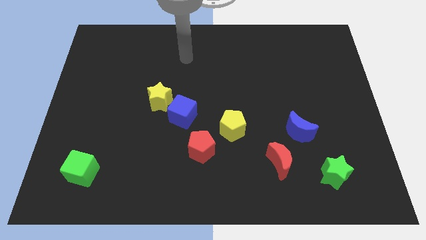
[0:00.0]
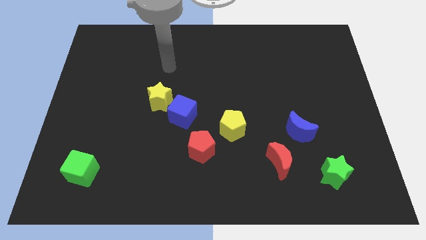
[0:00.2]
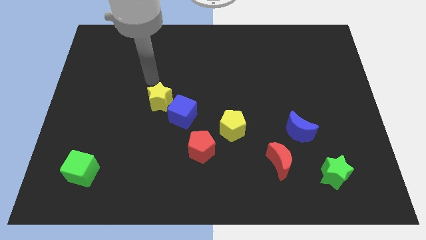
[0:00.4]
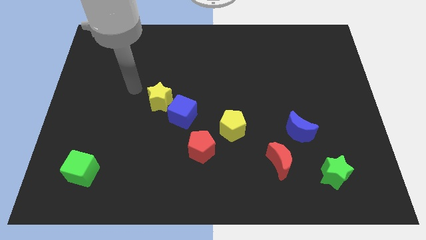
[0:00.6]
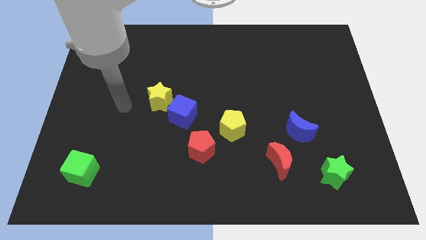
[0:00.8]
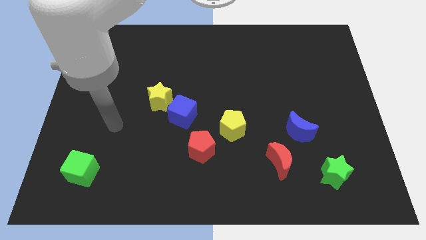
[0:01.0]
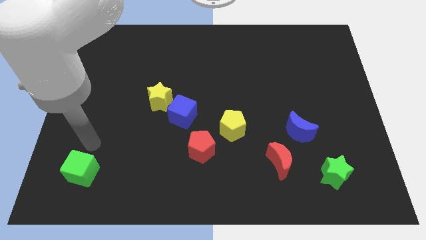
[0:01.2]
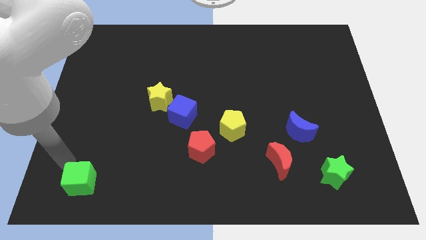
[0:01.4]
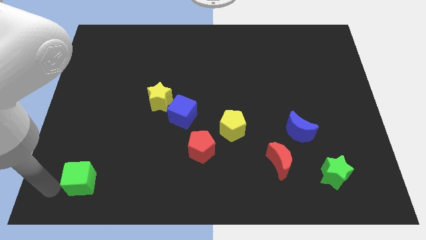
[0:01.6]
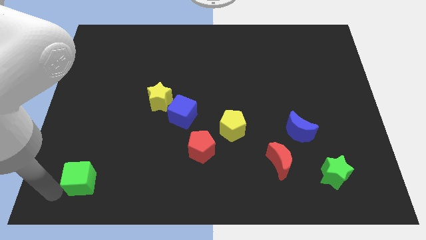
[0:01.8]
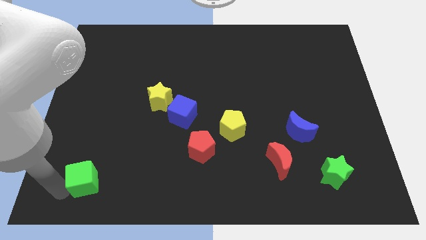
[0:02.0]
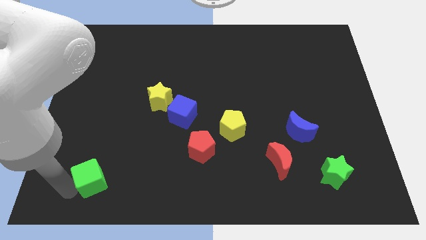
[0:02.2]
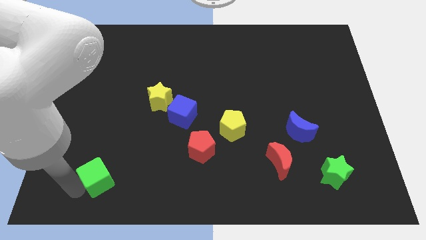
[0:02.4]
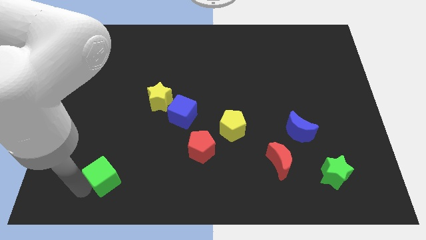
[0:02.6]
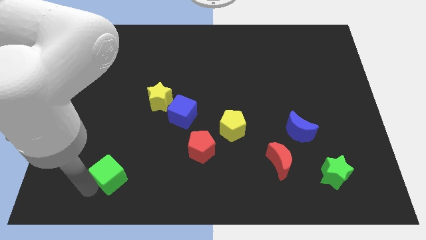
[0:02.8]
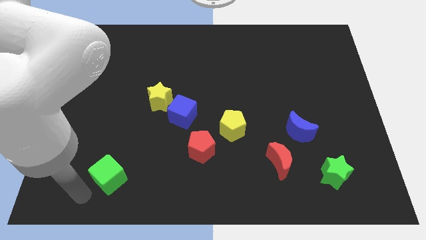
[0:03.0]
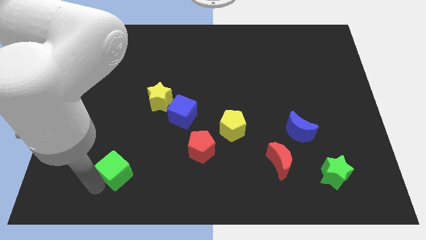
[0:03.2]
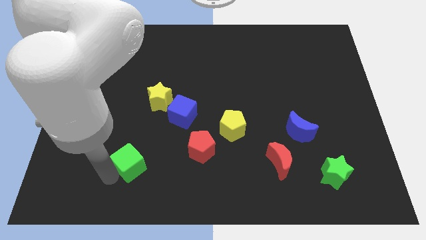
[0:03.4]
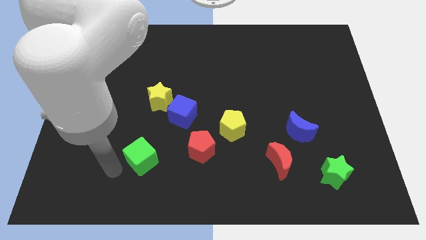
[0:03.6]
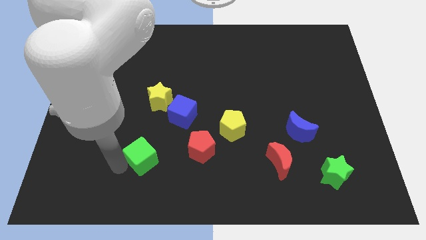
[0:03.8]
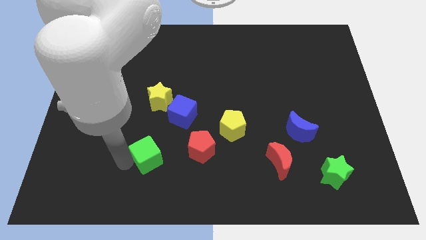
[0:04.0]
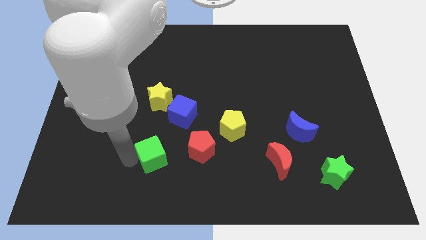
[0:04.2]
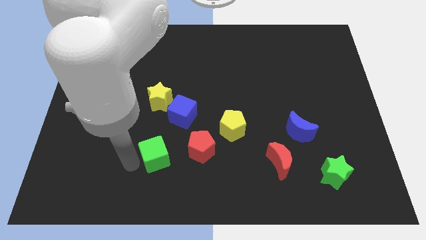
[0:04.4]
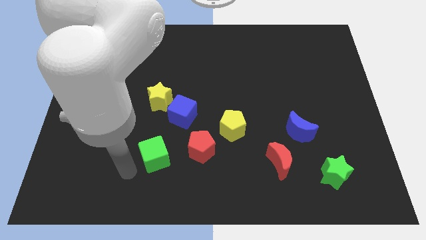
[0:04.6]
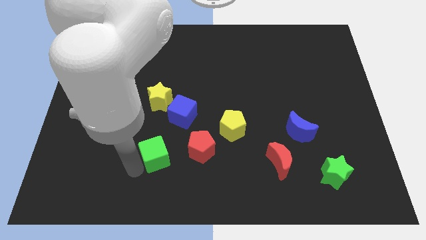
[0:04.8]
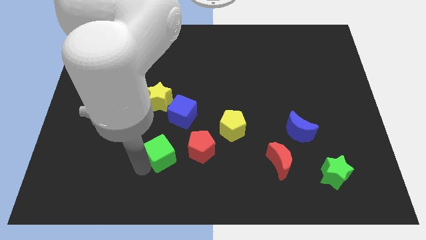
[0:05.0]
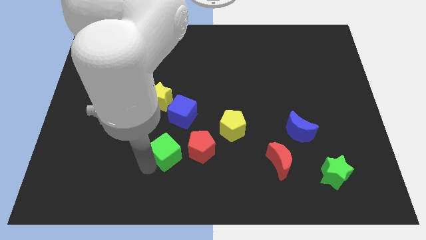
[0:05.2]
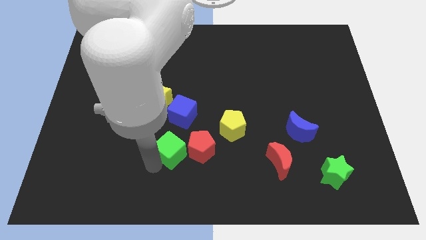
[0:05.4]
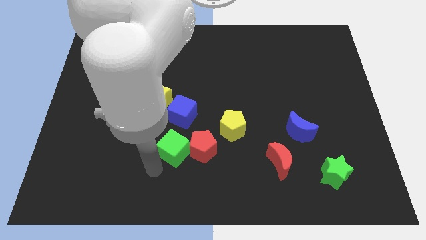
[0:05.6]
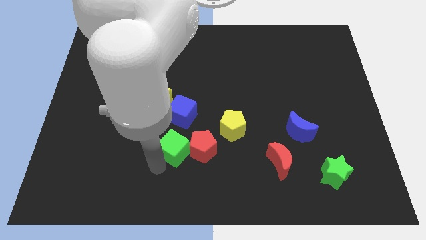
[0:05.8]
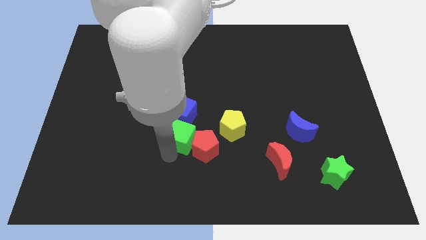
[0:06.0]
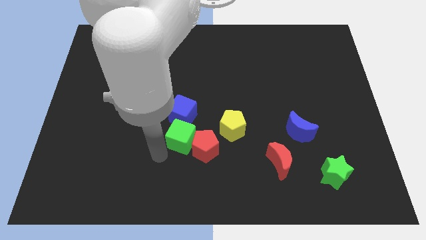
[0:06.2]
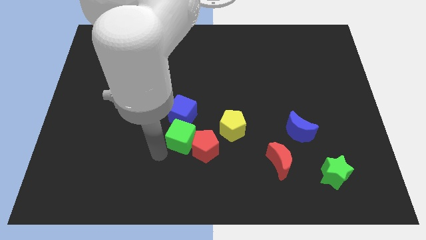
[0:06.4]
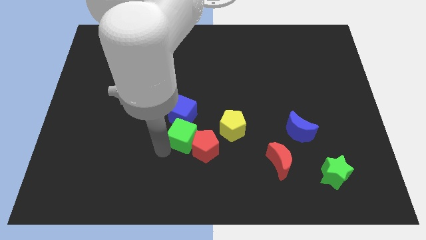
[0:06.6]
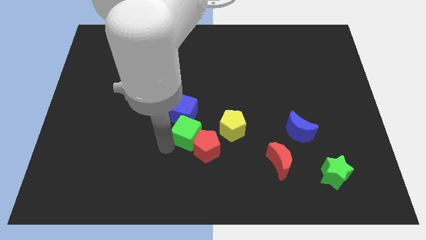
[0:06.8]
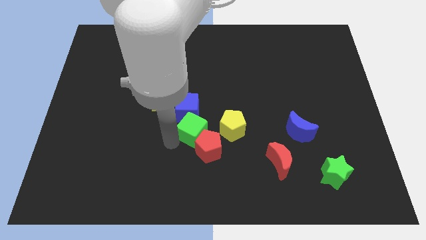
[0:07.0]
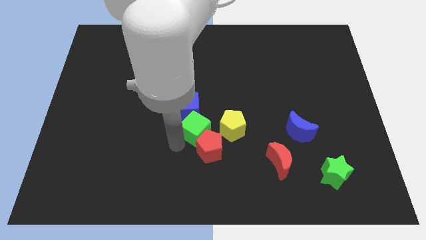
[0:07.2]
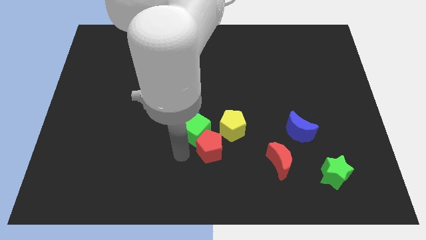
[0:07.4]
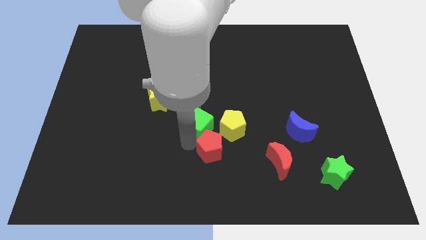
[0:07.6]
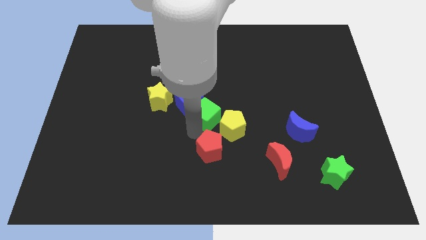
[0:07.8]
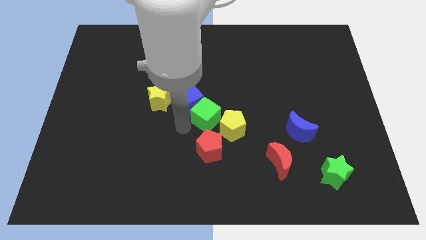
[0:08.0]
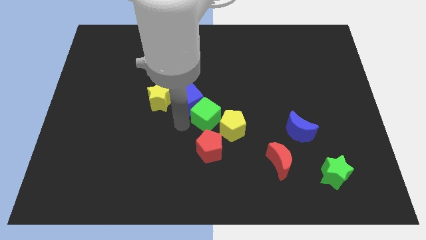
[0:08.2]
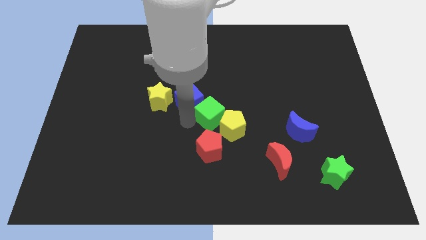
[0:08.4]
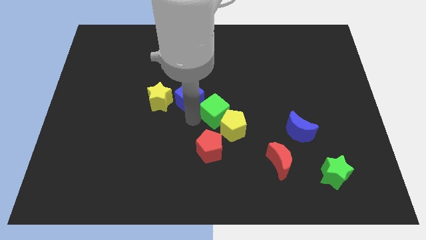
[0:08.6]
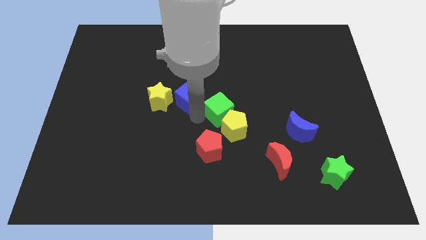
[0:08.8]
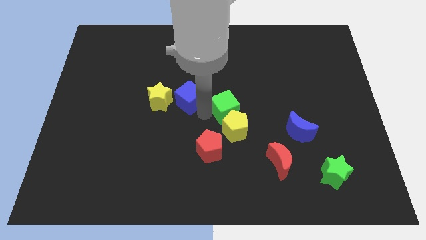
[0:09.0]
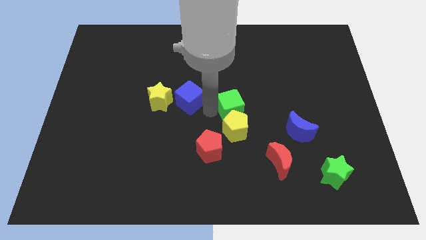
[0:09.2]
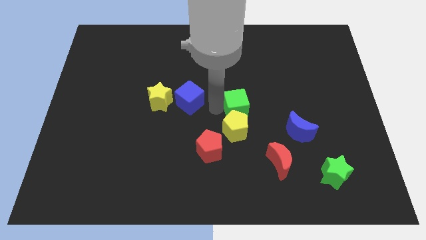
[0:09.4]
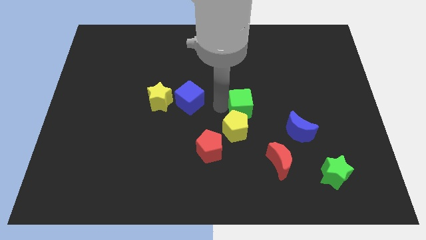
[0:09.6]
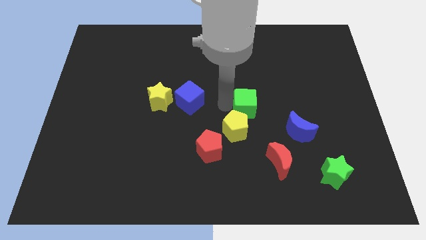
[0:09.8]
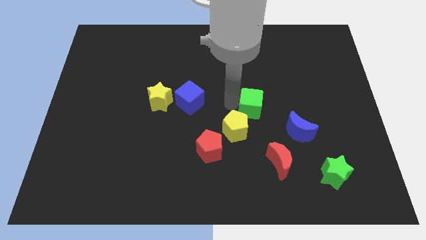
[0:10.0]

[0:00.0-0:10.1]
move the green cube to the top left side of the blue moon
